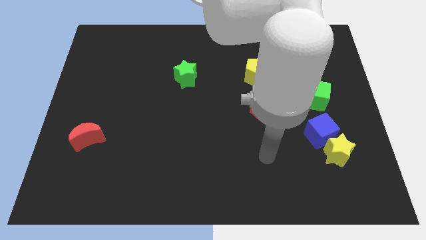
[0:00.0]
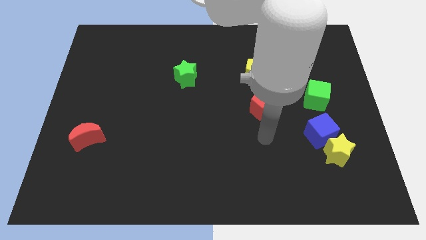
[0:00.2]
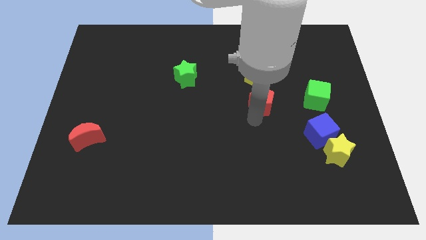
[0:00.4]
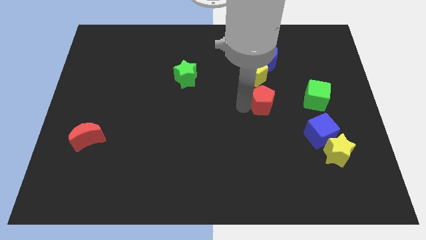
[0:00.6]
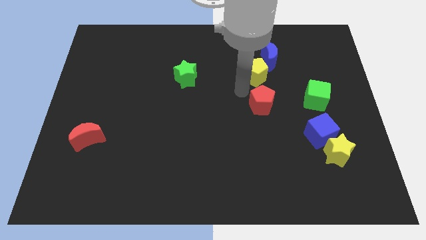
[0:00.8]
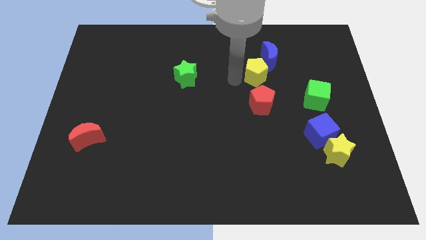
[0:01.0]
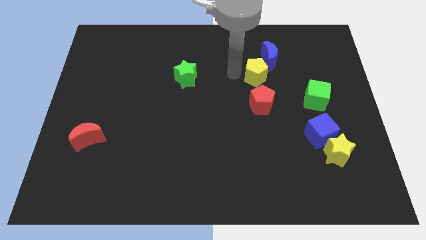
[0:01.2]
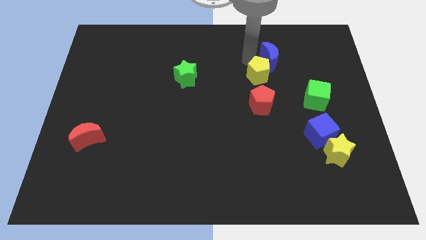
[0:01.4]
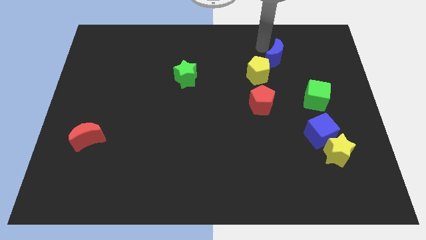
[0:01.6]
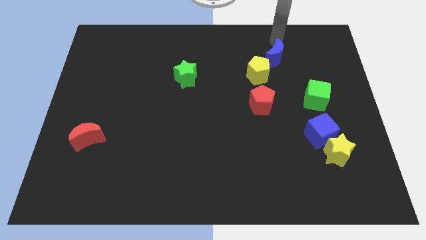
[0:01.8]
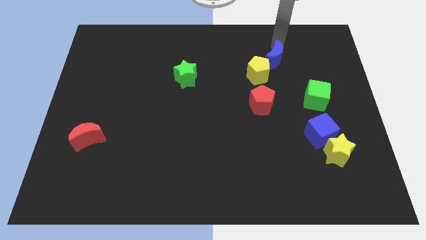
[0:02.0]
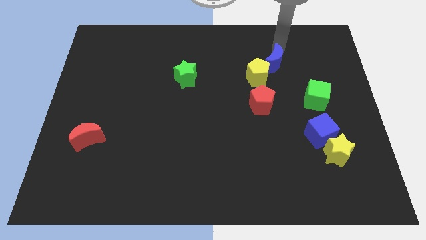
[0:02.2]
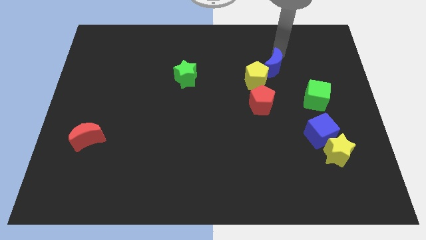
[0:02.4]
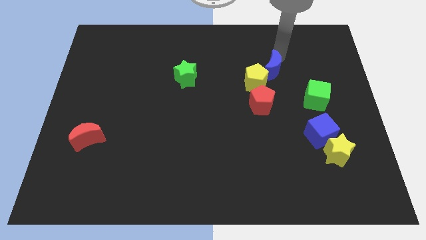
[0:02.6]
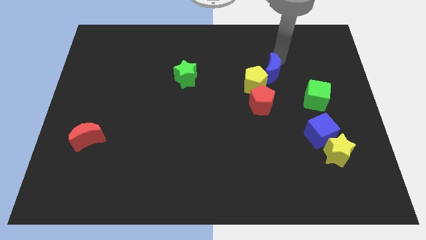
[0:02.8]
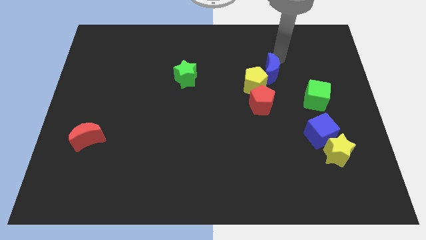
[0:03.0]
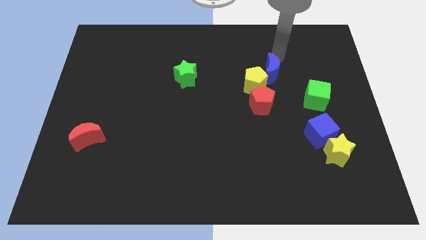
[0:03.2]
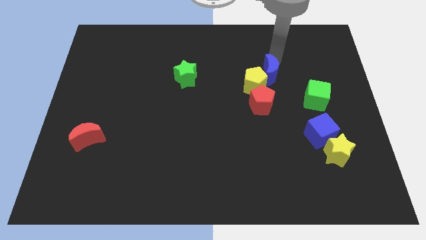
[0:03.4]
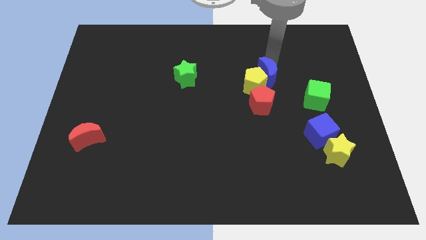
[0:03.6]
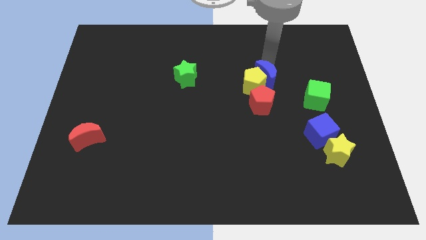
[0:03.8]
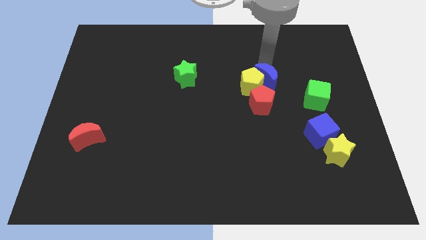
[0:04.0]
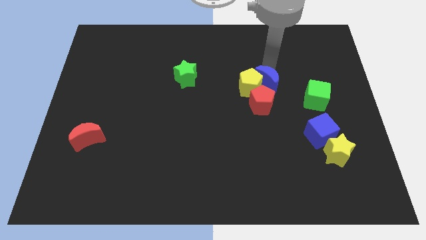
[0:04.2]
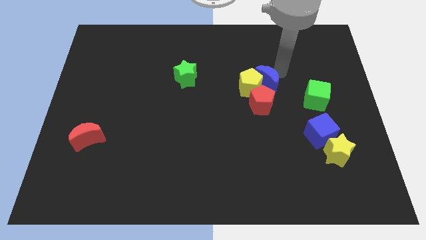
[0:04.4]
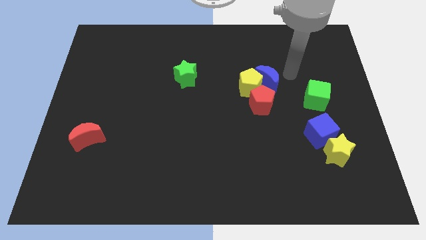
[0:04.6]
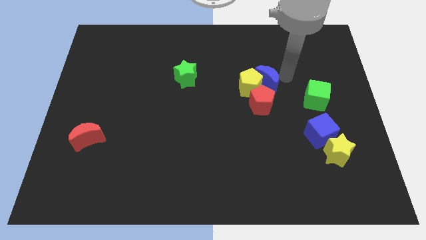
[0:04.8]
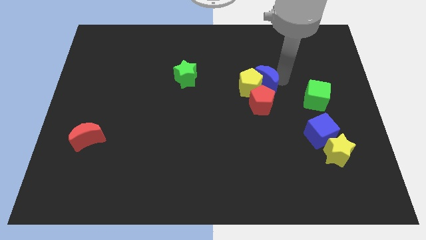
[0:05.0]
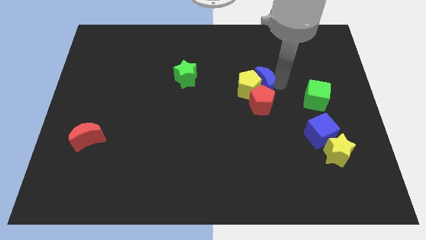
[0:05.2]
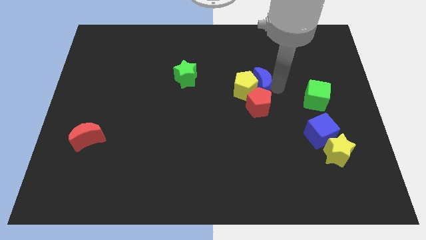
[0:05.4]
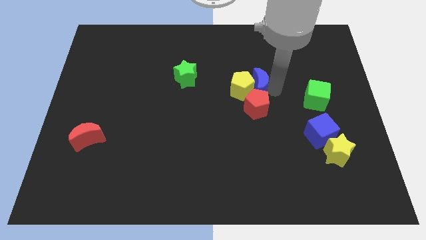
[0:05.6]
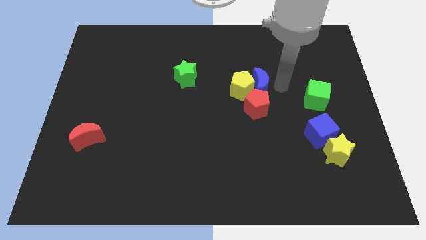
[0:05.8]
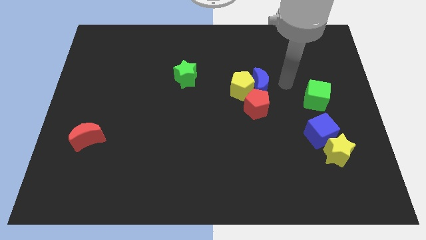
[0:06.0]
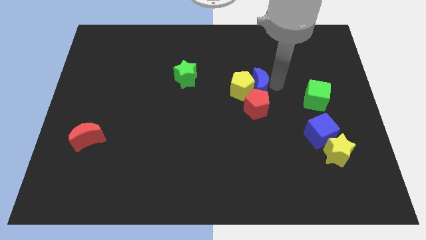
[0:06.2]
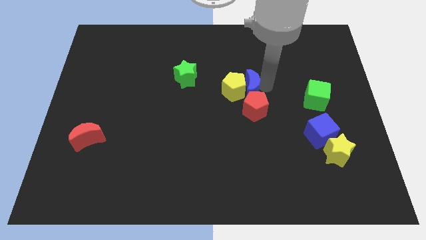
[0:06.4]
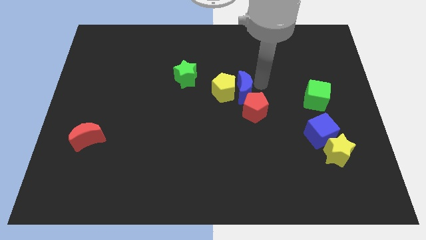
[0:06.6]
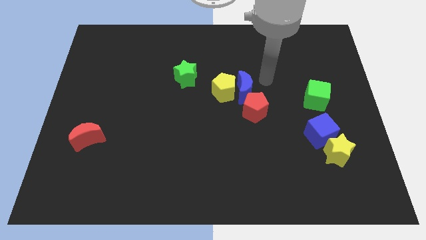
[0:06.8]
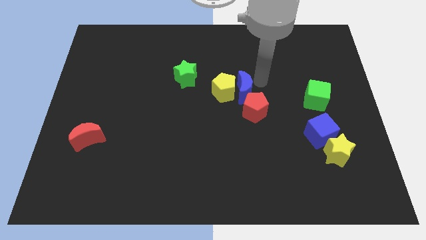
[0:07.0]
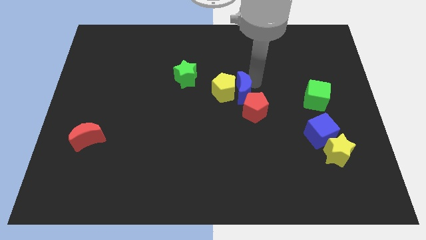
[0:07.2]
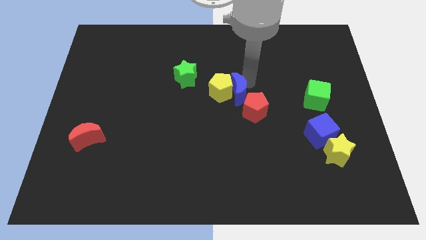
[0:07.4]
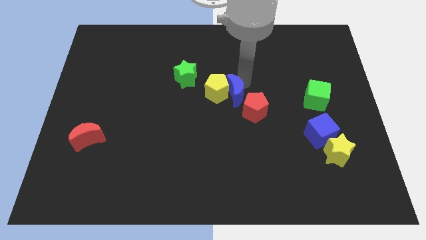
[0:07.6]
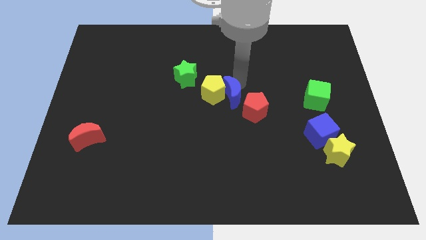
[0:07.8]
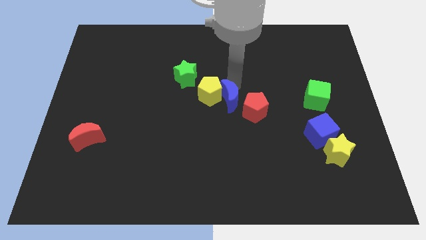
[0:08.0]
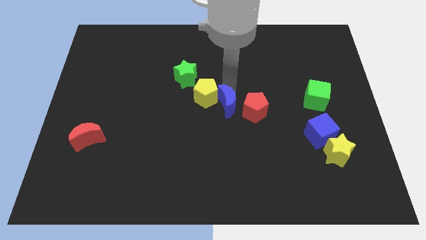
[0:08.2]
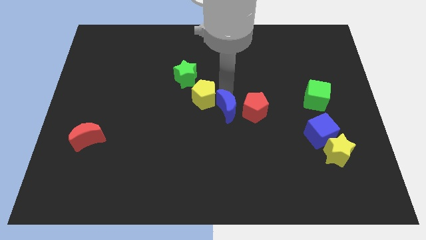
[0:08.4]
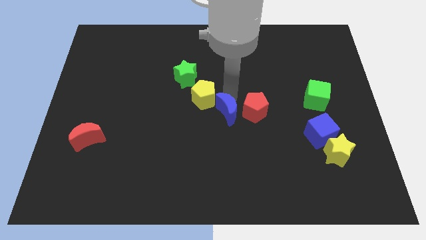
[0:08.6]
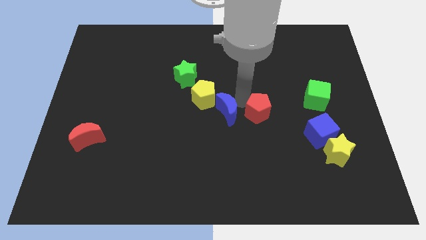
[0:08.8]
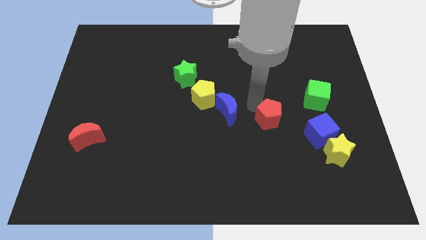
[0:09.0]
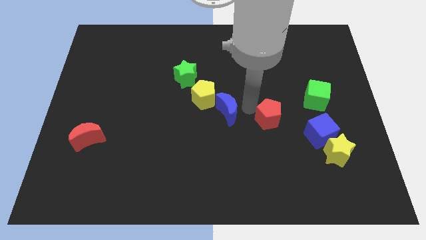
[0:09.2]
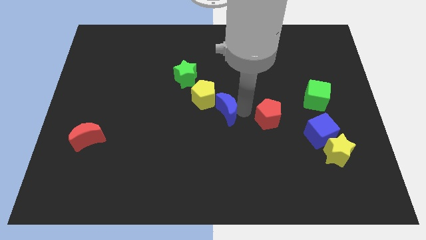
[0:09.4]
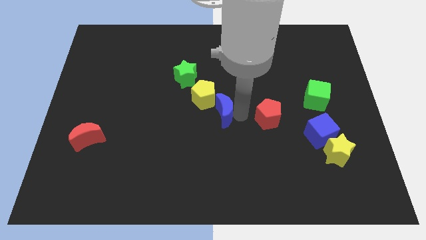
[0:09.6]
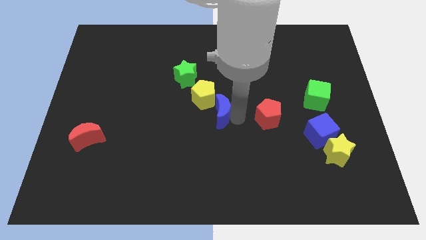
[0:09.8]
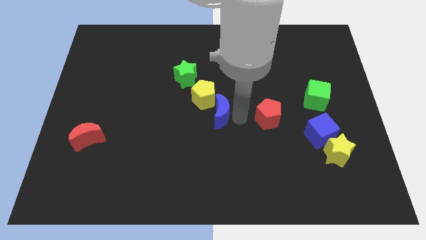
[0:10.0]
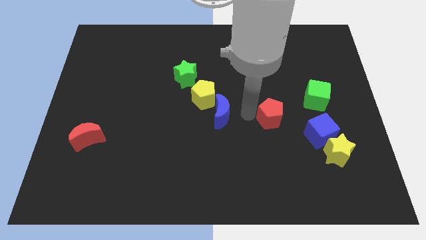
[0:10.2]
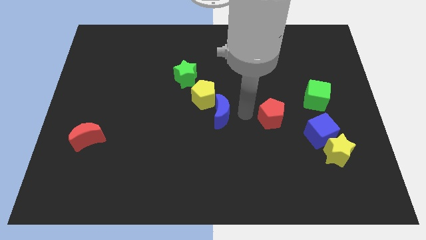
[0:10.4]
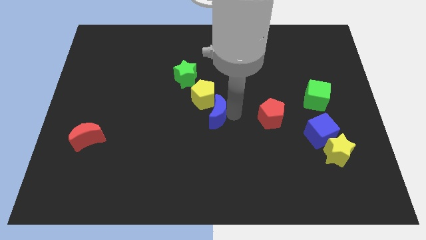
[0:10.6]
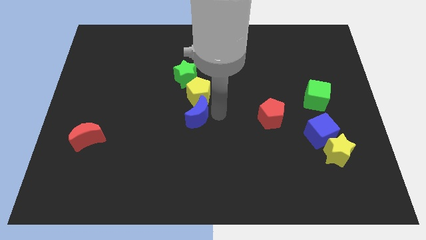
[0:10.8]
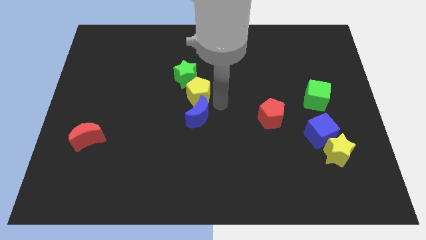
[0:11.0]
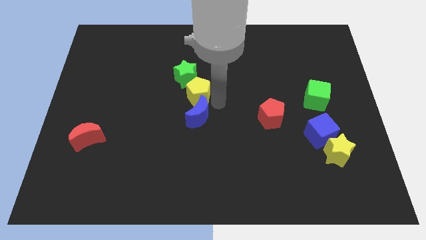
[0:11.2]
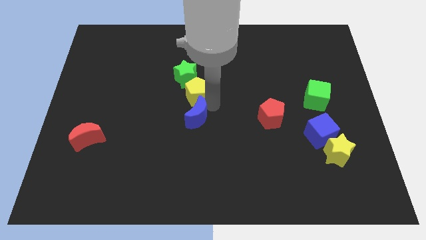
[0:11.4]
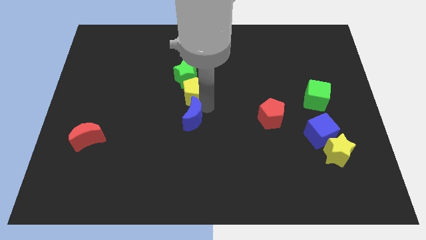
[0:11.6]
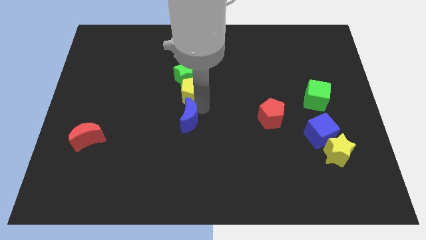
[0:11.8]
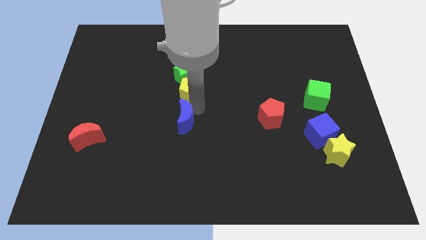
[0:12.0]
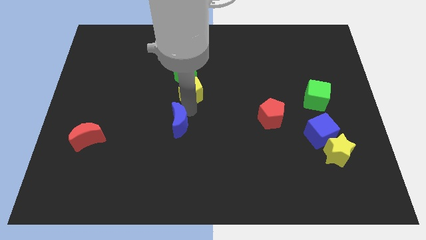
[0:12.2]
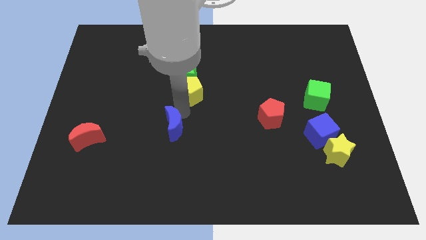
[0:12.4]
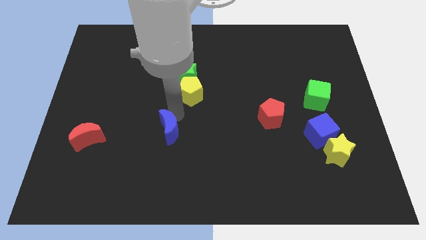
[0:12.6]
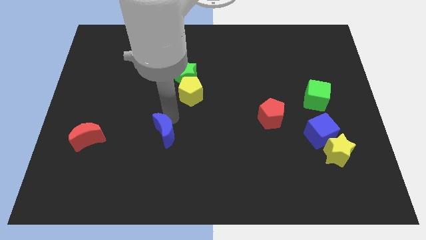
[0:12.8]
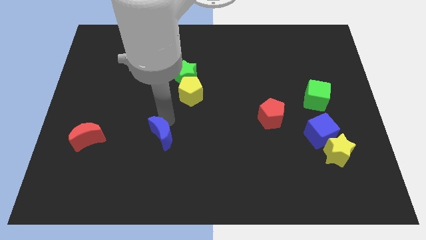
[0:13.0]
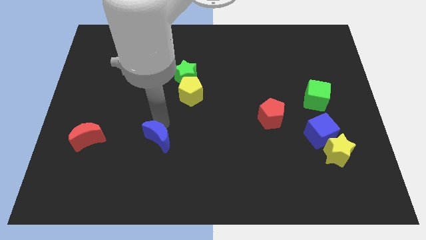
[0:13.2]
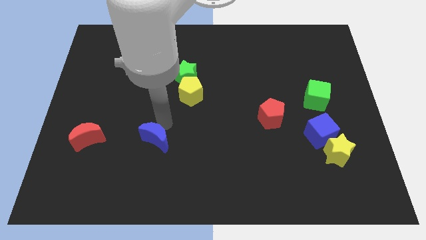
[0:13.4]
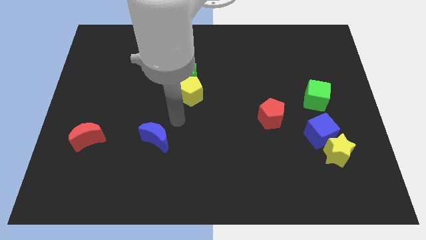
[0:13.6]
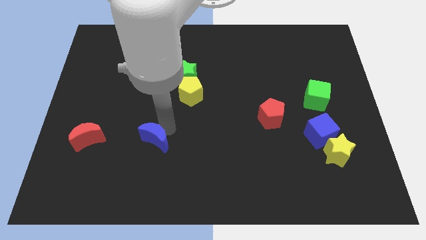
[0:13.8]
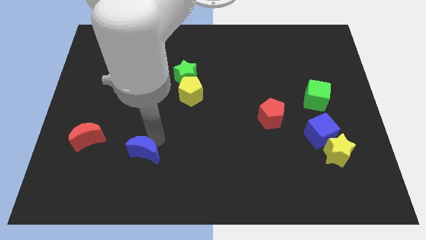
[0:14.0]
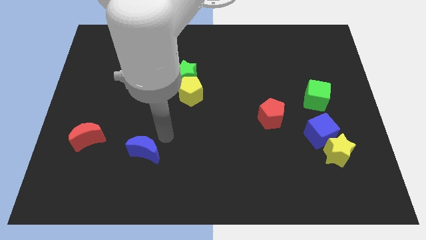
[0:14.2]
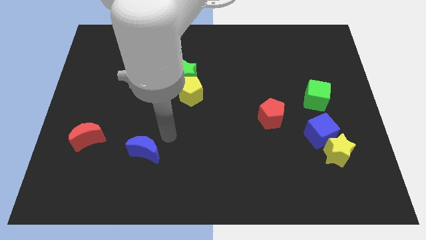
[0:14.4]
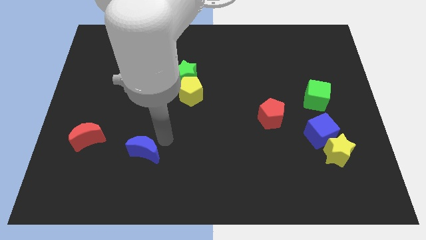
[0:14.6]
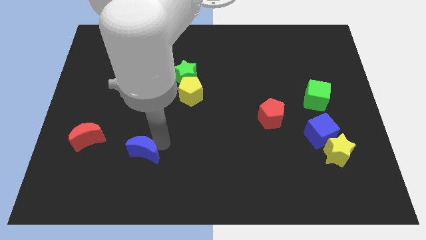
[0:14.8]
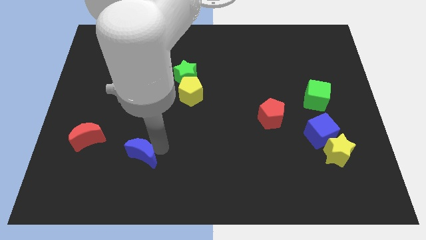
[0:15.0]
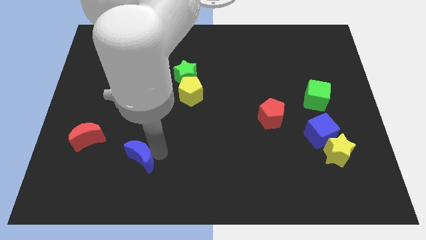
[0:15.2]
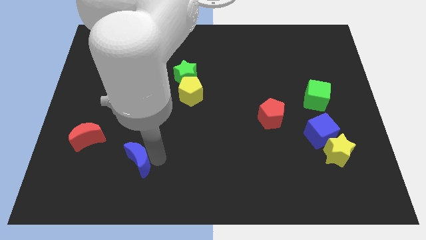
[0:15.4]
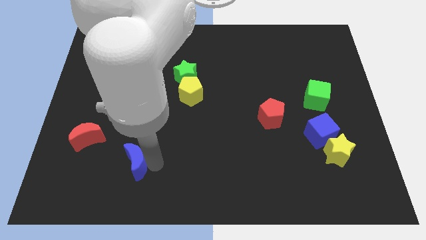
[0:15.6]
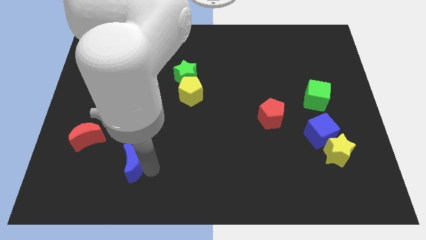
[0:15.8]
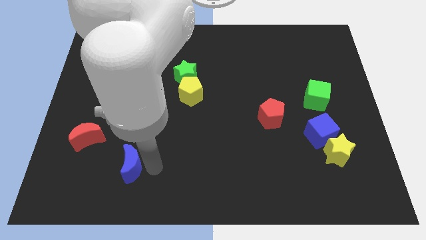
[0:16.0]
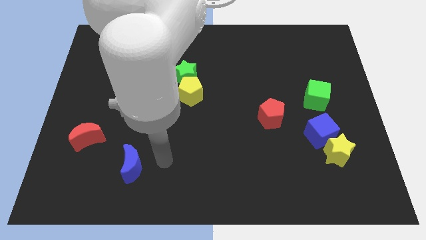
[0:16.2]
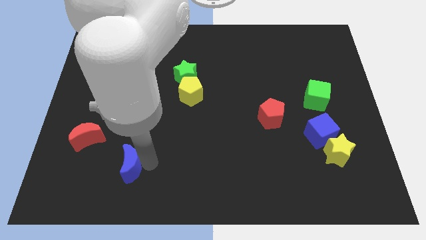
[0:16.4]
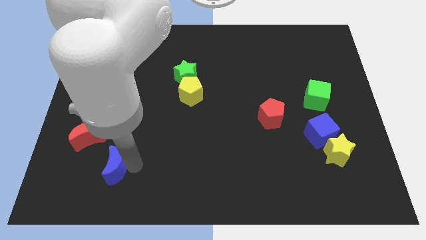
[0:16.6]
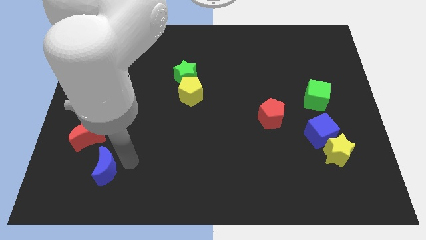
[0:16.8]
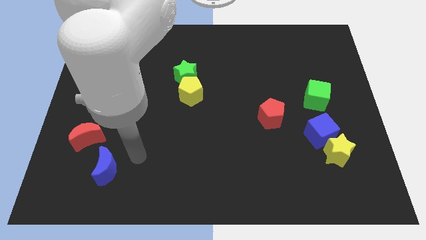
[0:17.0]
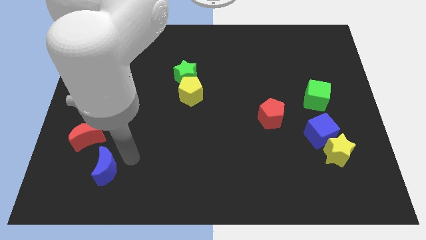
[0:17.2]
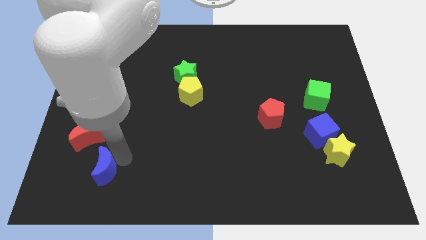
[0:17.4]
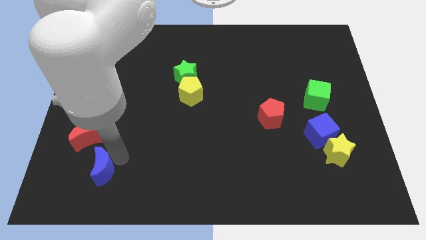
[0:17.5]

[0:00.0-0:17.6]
push the blue moon below the red moon
